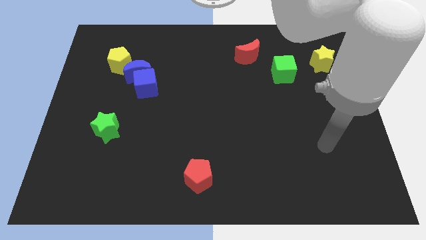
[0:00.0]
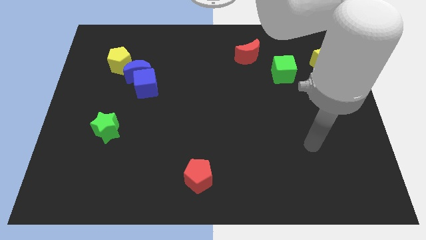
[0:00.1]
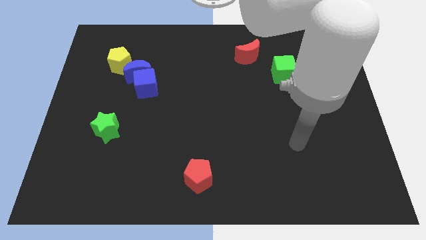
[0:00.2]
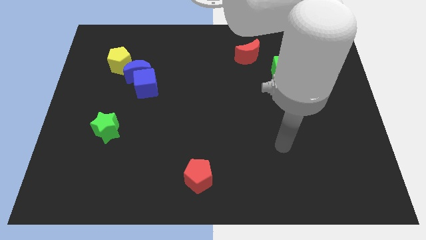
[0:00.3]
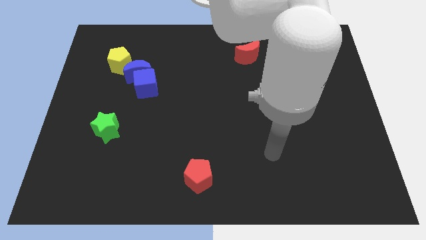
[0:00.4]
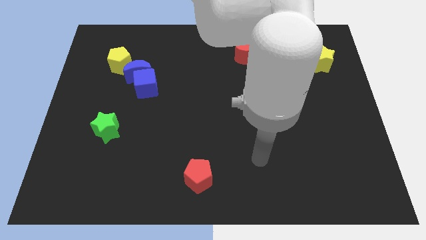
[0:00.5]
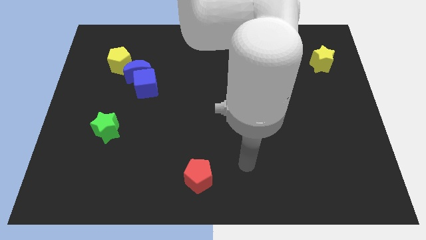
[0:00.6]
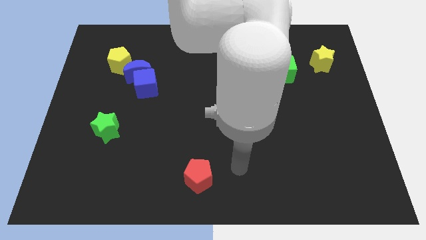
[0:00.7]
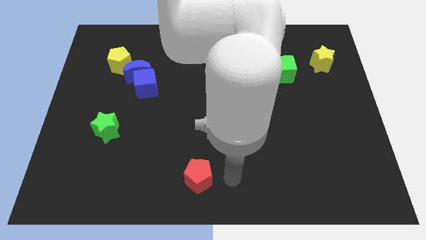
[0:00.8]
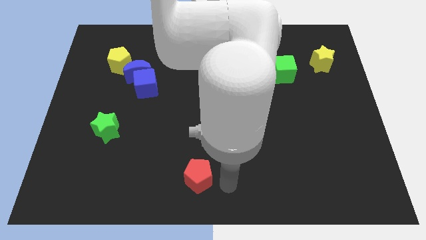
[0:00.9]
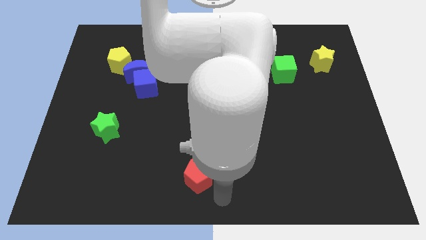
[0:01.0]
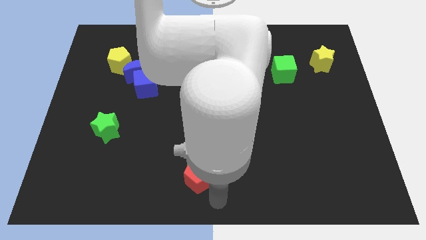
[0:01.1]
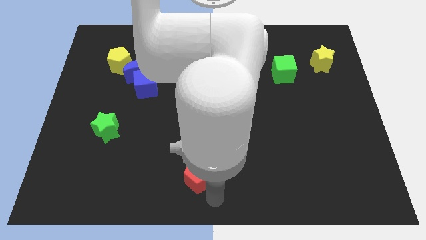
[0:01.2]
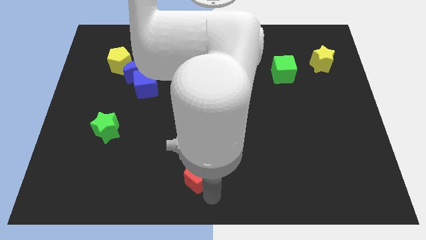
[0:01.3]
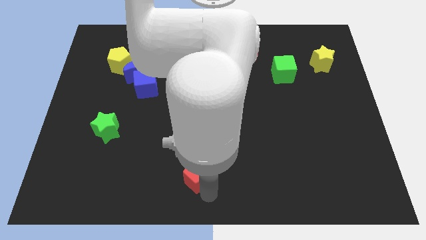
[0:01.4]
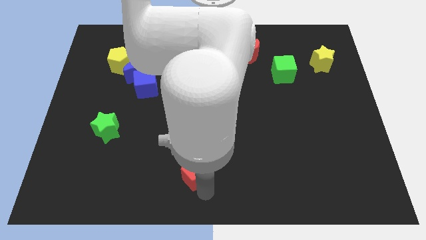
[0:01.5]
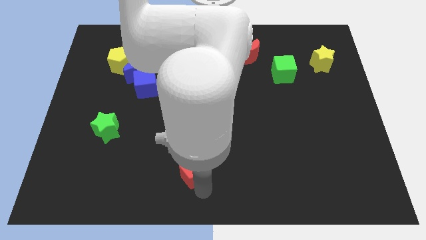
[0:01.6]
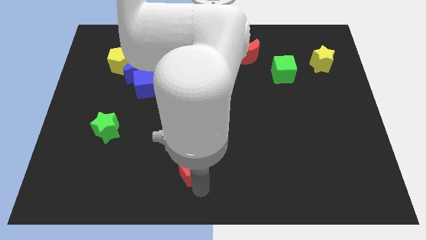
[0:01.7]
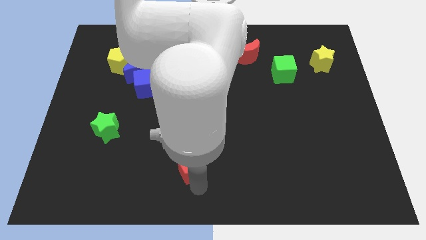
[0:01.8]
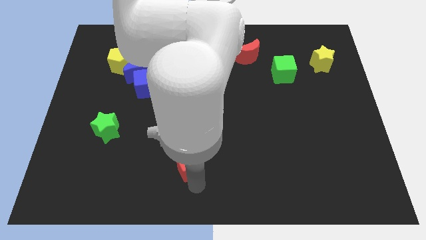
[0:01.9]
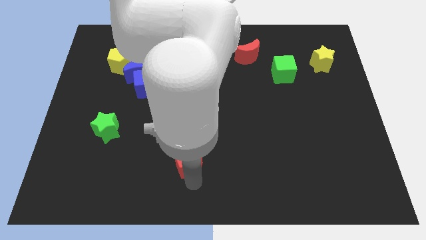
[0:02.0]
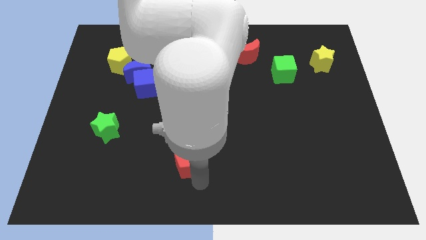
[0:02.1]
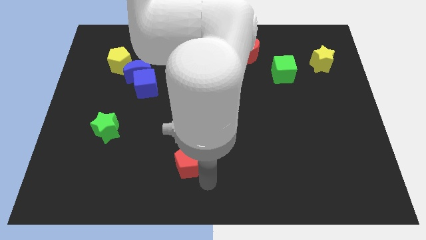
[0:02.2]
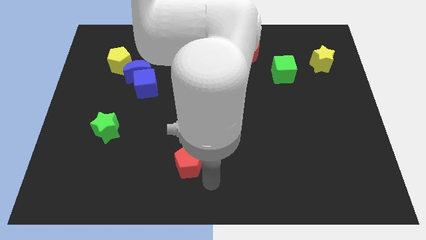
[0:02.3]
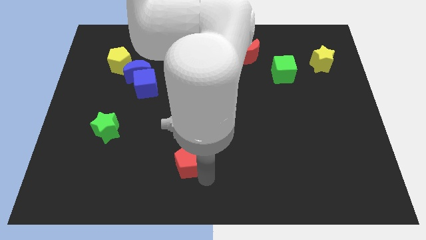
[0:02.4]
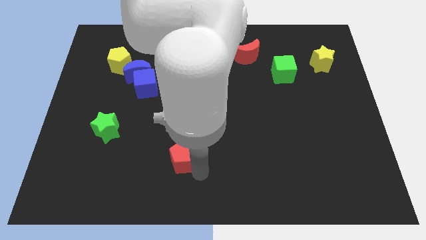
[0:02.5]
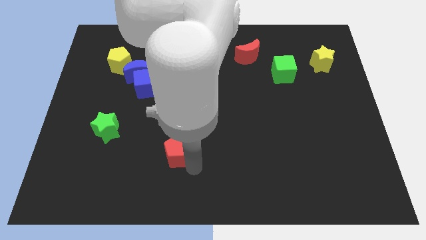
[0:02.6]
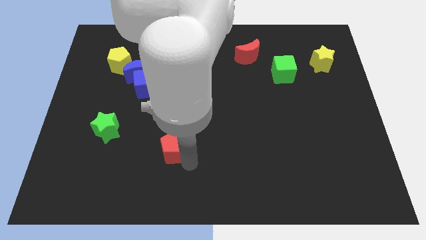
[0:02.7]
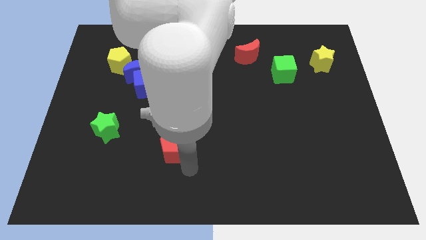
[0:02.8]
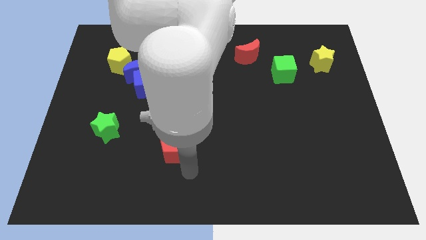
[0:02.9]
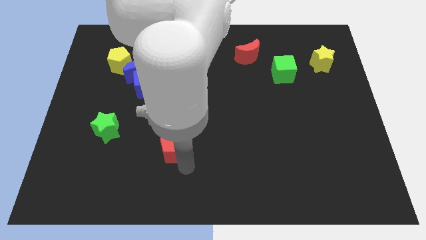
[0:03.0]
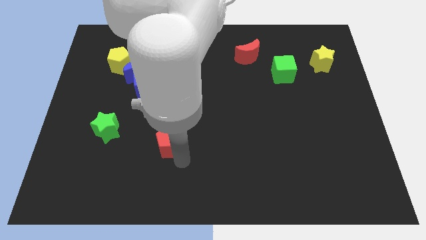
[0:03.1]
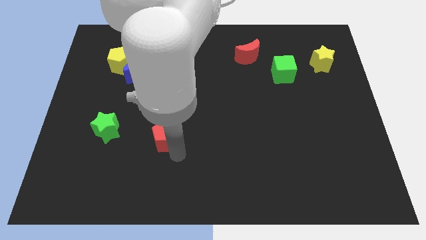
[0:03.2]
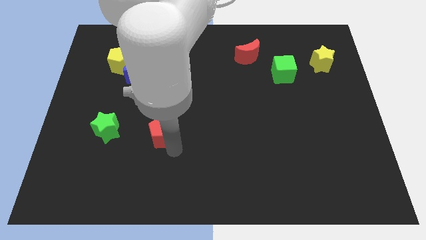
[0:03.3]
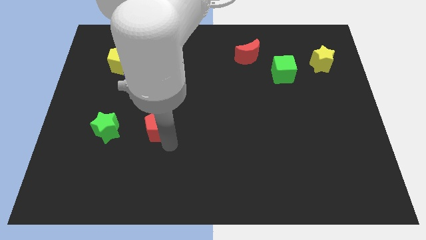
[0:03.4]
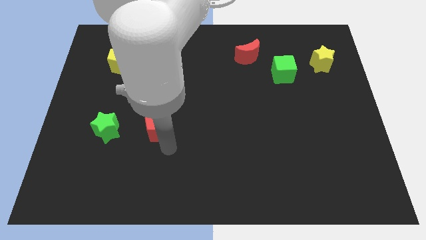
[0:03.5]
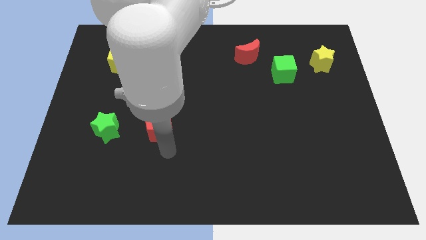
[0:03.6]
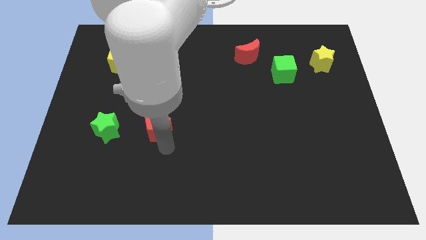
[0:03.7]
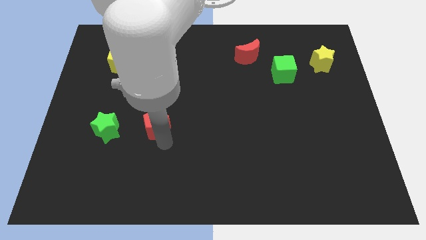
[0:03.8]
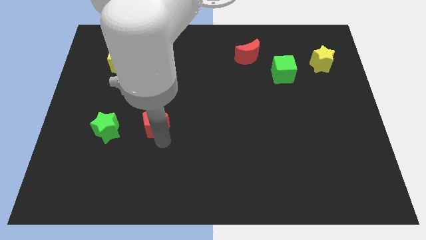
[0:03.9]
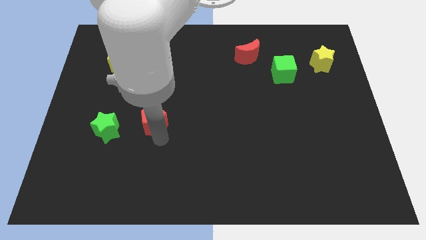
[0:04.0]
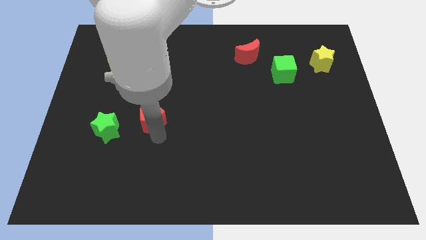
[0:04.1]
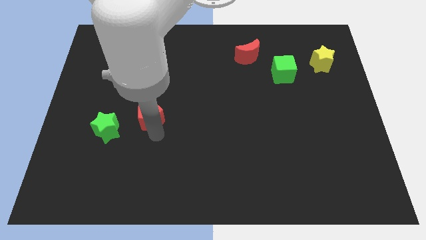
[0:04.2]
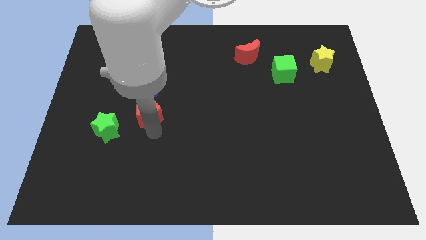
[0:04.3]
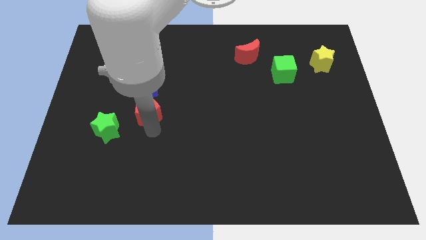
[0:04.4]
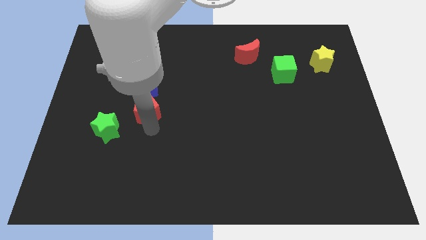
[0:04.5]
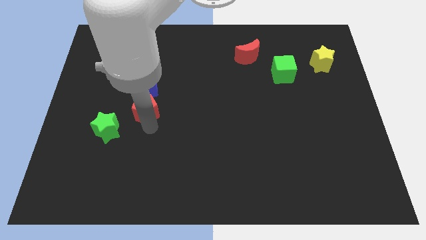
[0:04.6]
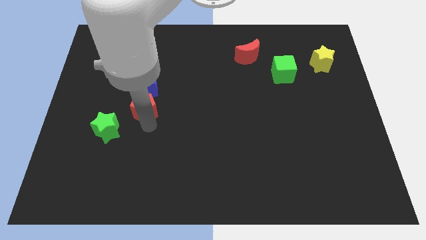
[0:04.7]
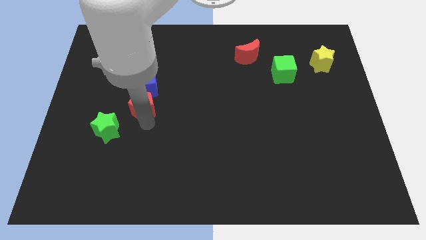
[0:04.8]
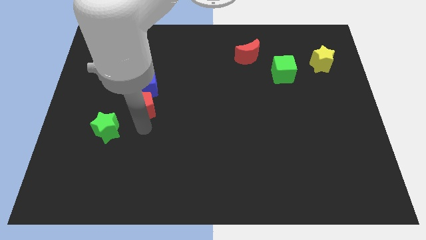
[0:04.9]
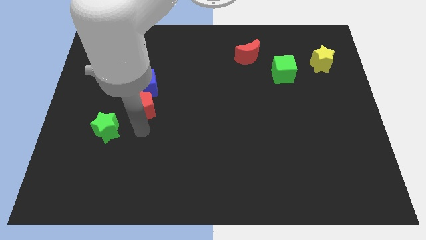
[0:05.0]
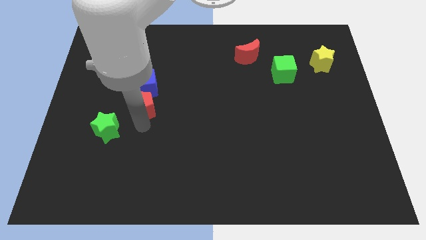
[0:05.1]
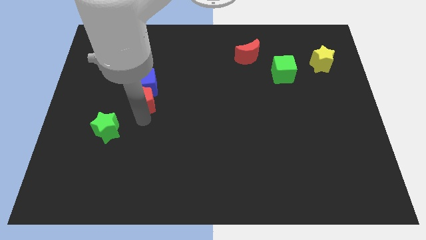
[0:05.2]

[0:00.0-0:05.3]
move the red pentagon towards the blue cube

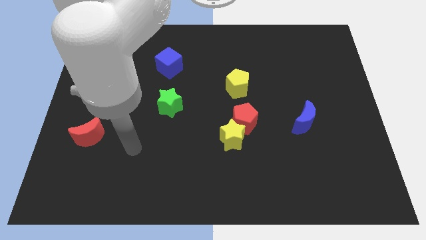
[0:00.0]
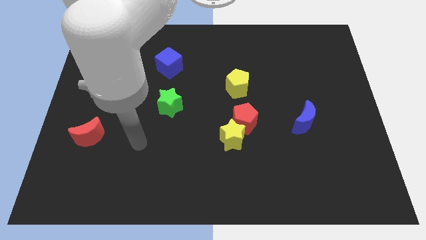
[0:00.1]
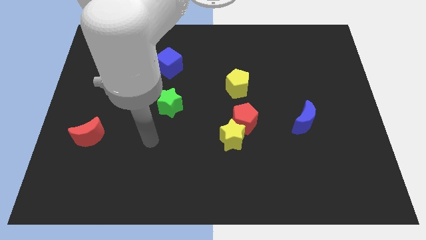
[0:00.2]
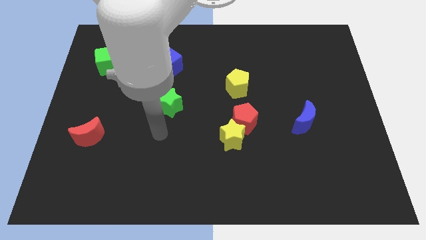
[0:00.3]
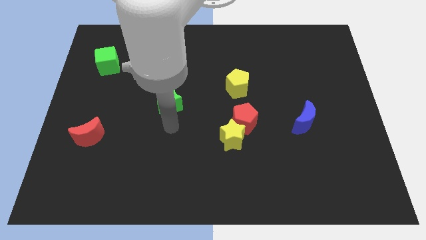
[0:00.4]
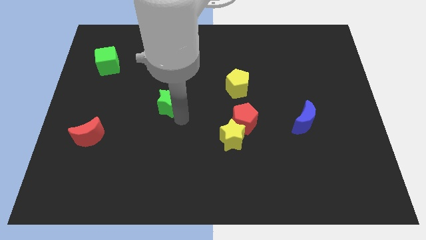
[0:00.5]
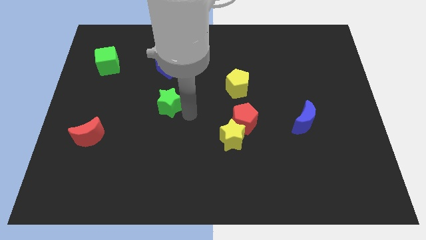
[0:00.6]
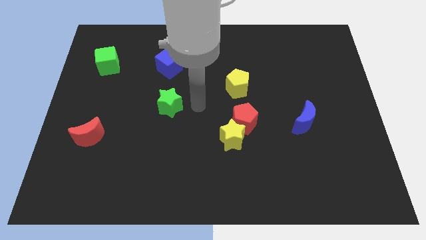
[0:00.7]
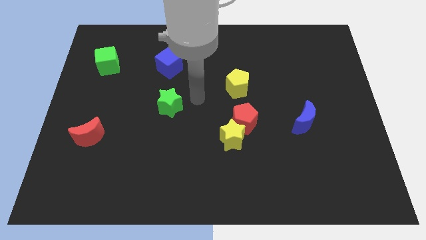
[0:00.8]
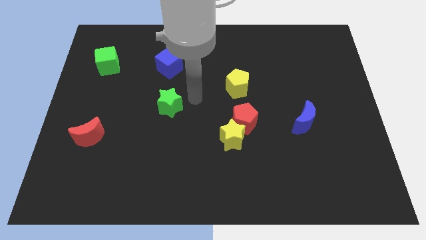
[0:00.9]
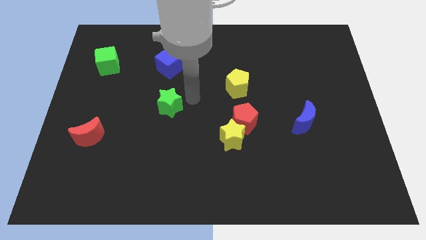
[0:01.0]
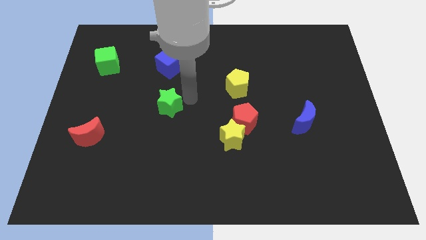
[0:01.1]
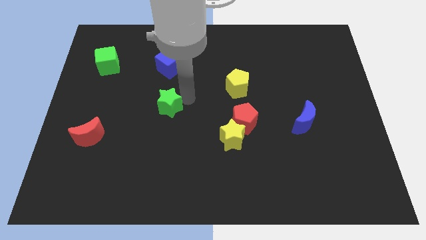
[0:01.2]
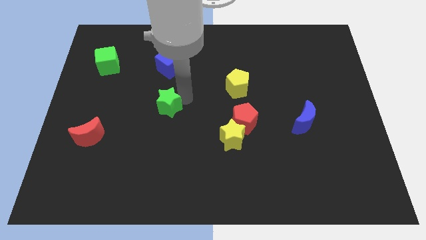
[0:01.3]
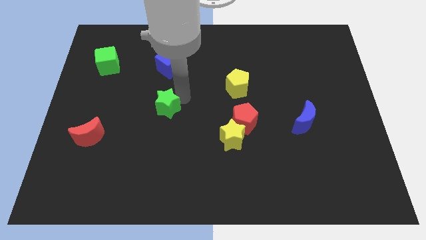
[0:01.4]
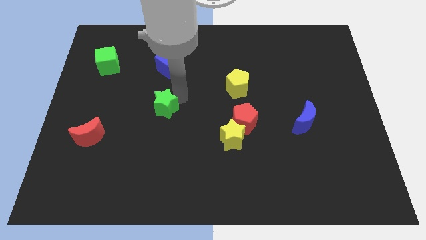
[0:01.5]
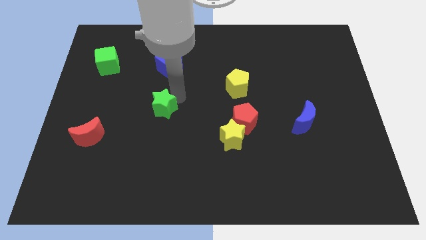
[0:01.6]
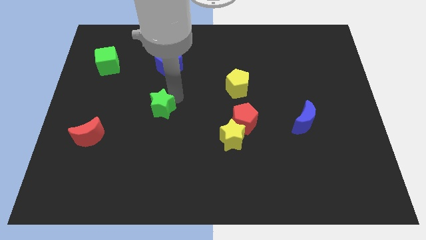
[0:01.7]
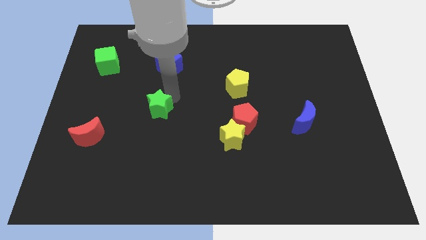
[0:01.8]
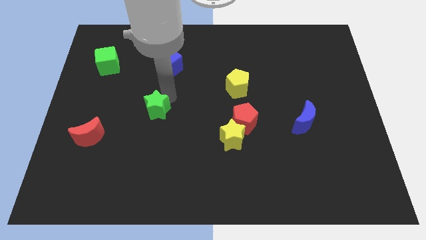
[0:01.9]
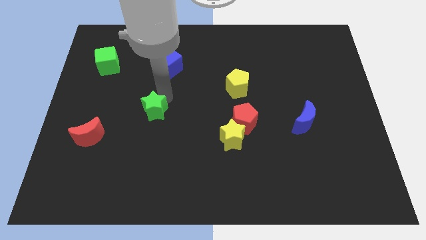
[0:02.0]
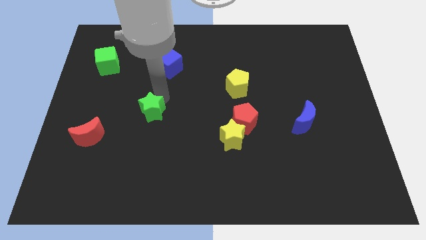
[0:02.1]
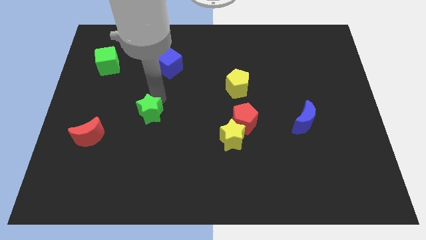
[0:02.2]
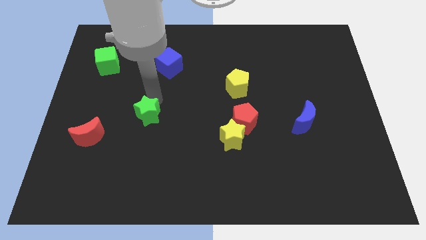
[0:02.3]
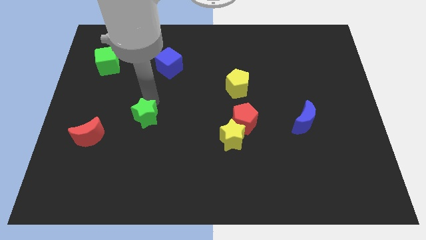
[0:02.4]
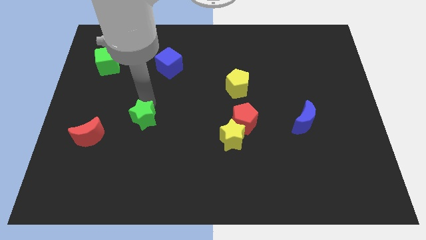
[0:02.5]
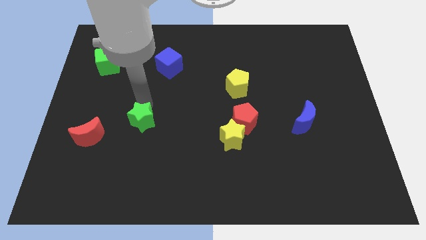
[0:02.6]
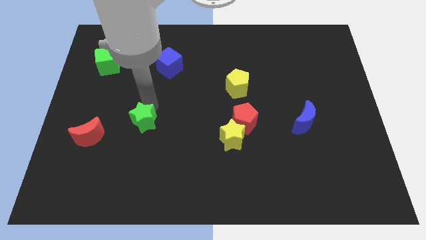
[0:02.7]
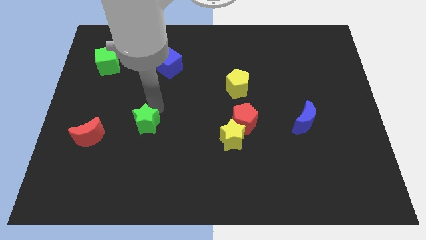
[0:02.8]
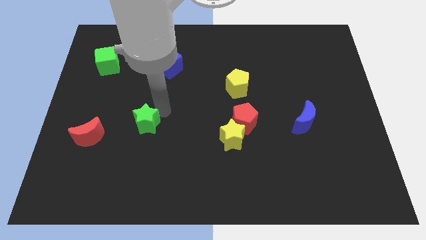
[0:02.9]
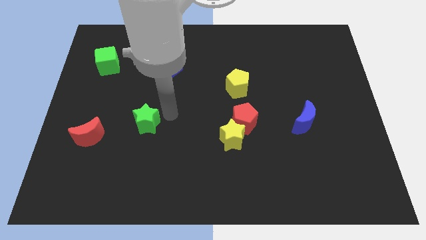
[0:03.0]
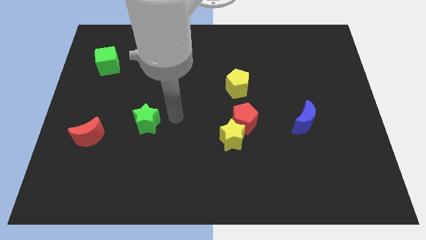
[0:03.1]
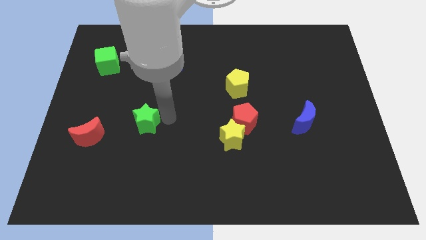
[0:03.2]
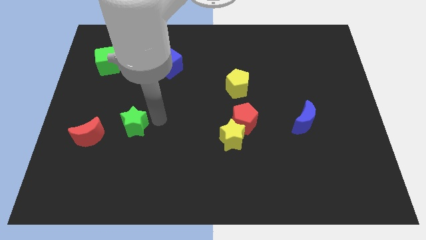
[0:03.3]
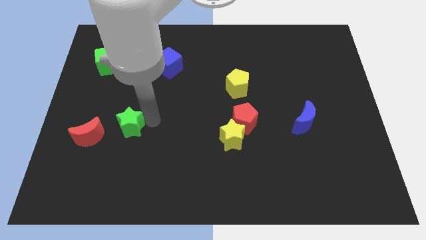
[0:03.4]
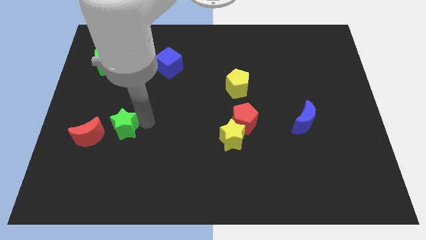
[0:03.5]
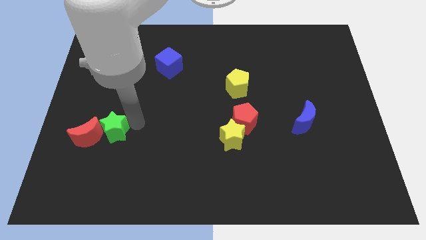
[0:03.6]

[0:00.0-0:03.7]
slide the green star to the red moon
